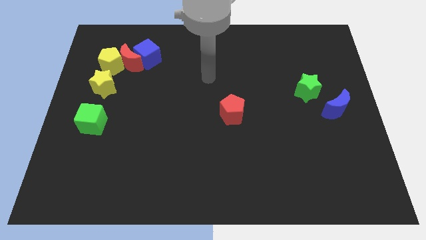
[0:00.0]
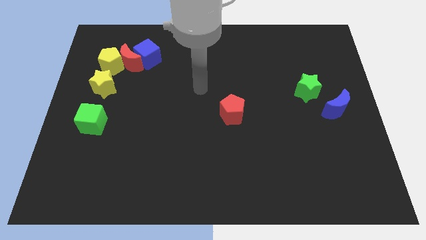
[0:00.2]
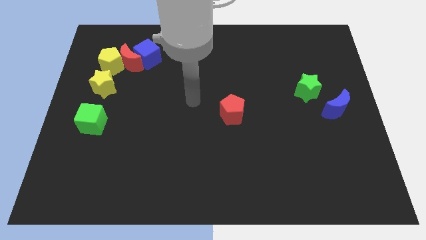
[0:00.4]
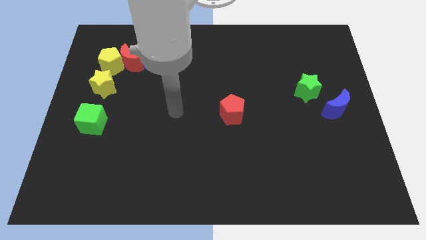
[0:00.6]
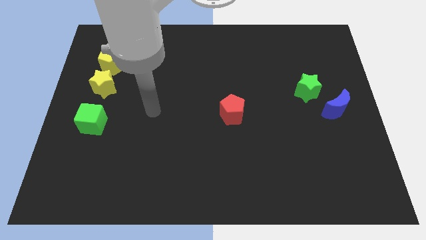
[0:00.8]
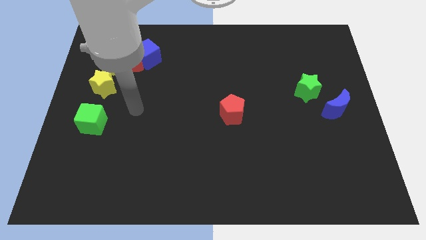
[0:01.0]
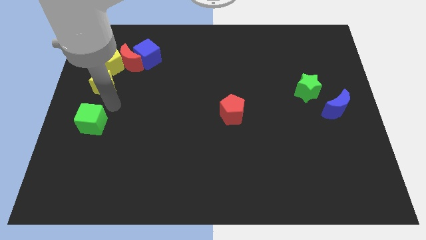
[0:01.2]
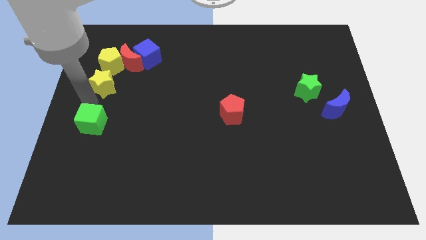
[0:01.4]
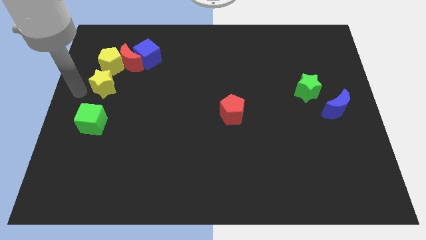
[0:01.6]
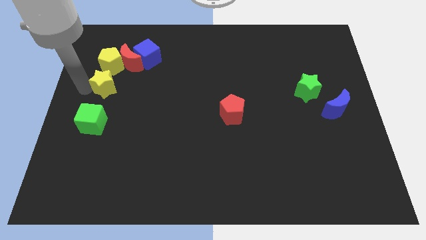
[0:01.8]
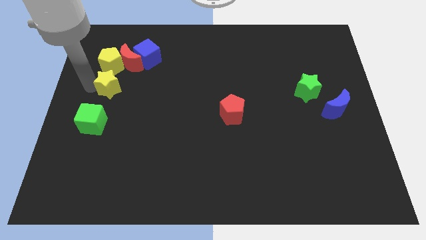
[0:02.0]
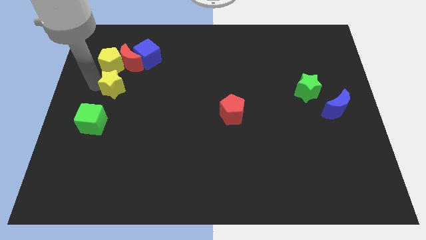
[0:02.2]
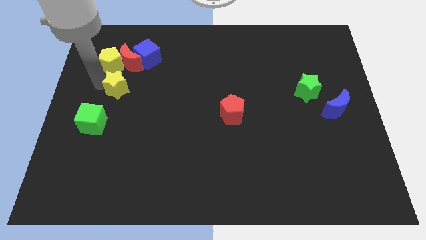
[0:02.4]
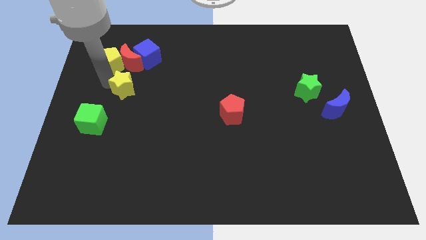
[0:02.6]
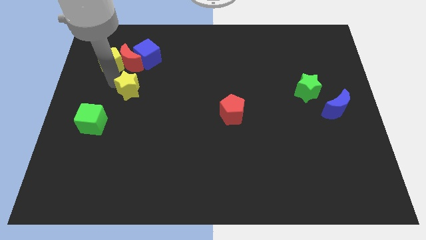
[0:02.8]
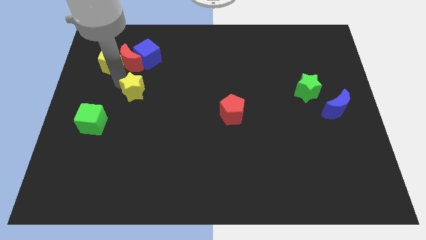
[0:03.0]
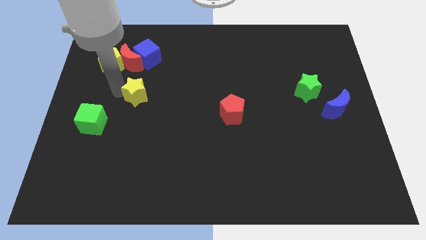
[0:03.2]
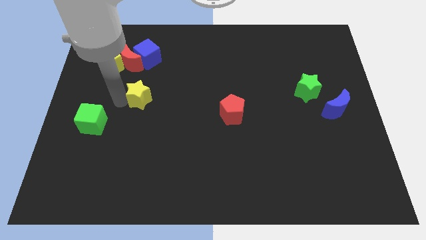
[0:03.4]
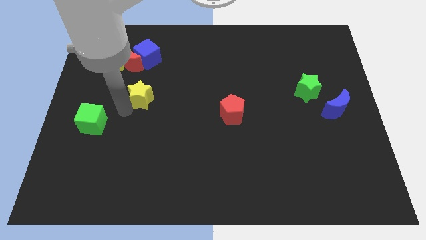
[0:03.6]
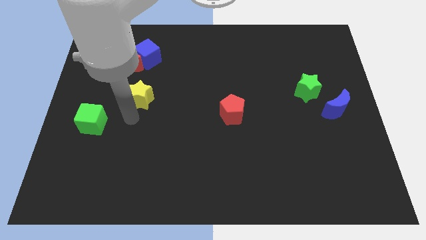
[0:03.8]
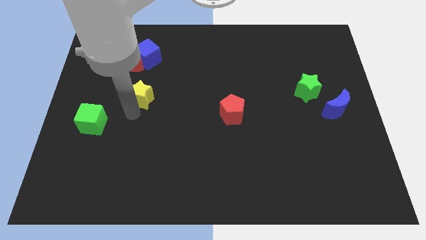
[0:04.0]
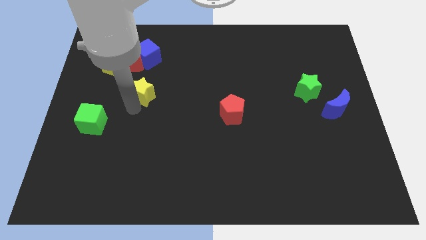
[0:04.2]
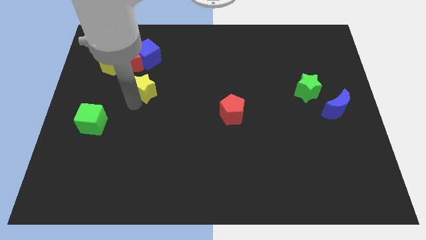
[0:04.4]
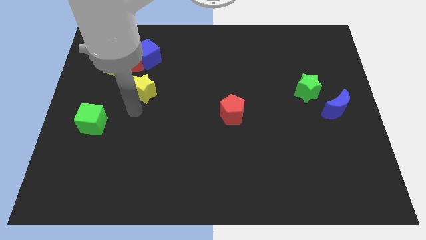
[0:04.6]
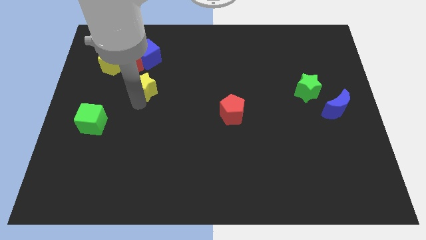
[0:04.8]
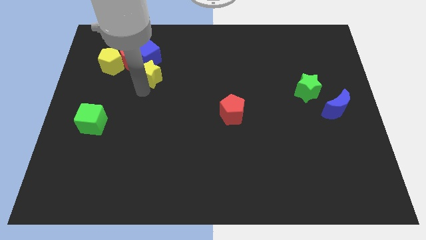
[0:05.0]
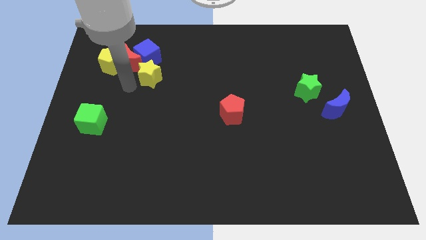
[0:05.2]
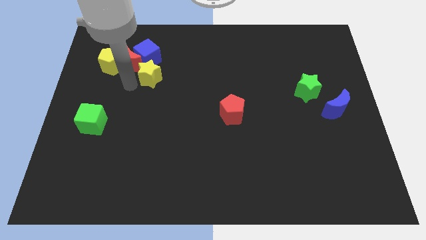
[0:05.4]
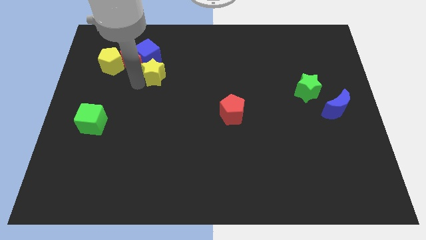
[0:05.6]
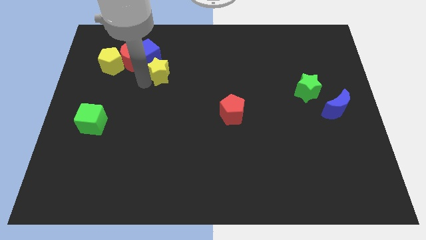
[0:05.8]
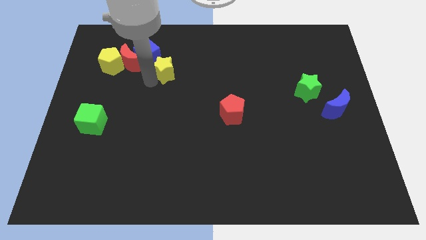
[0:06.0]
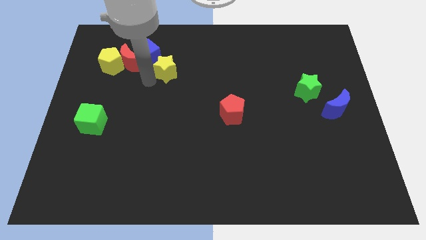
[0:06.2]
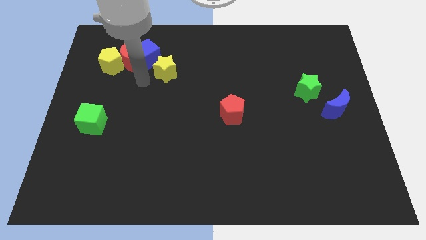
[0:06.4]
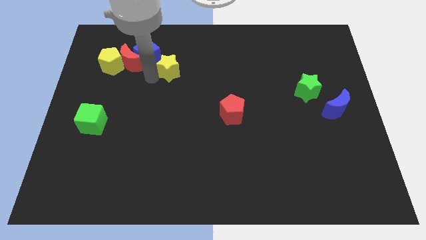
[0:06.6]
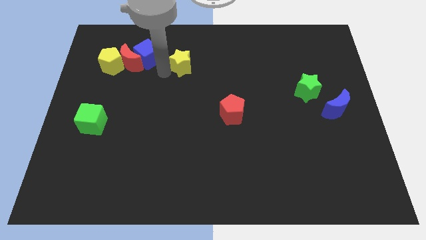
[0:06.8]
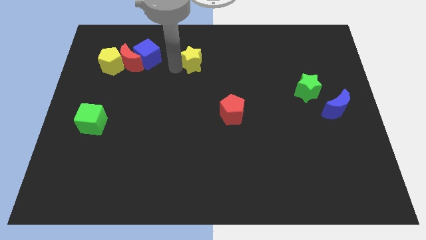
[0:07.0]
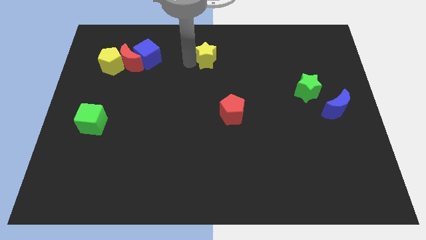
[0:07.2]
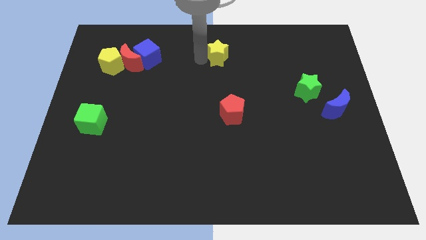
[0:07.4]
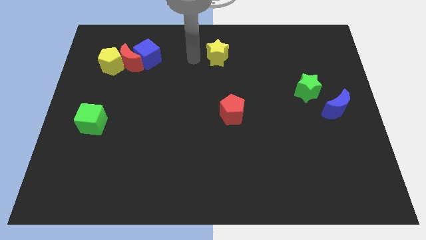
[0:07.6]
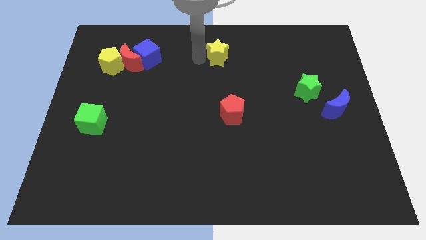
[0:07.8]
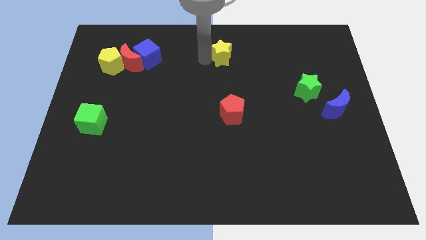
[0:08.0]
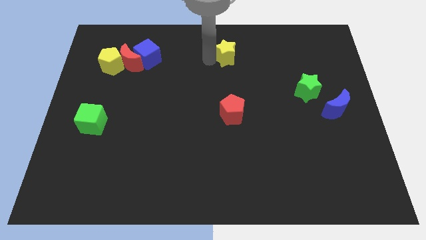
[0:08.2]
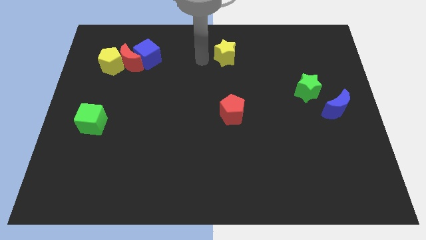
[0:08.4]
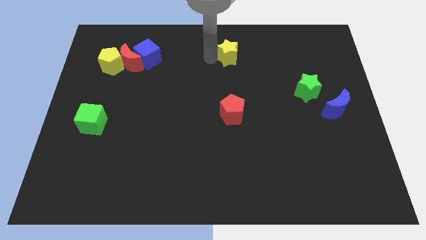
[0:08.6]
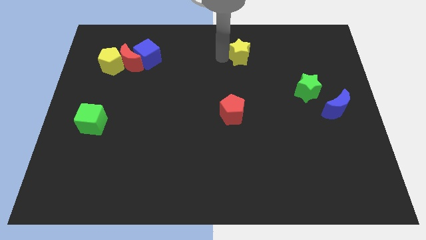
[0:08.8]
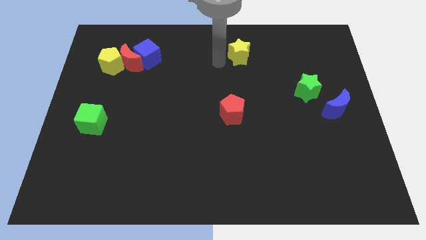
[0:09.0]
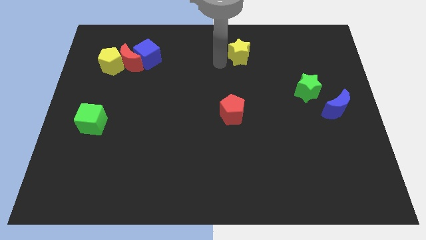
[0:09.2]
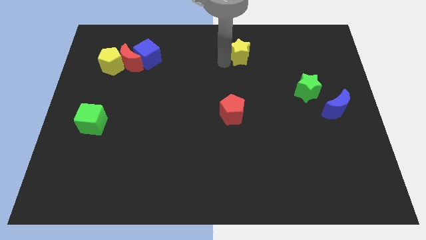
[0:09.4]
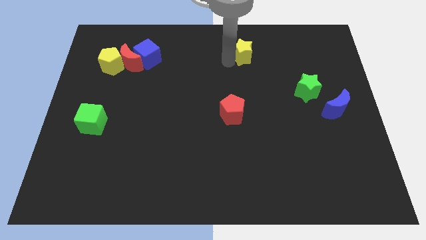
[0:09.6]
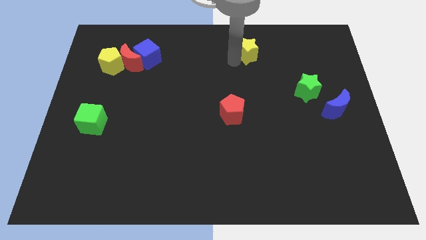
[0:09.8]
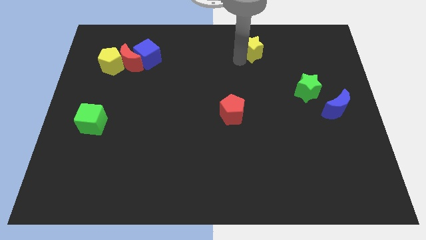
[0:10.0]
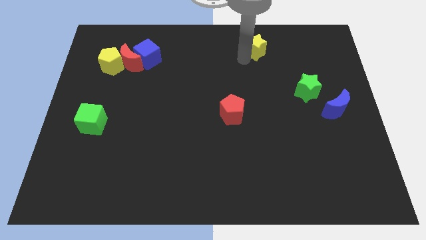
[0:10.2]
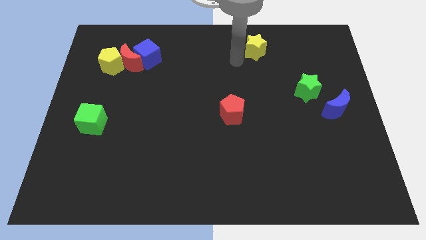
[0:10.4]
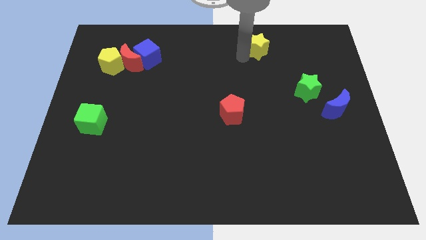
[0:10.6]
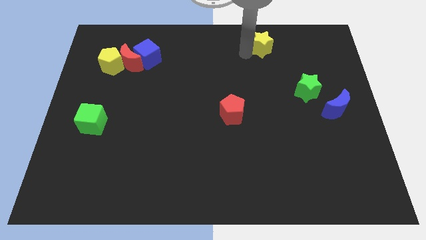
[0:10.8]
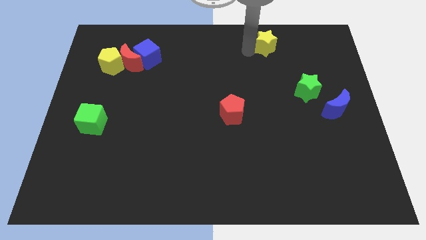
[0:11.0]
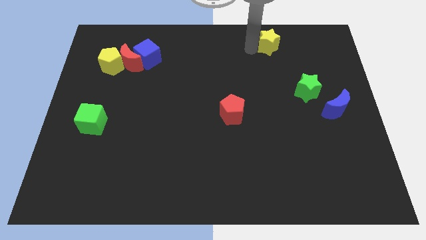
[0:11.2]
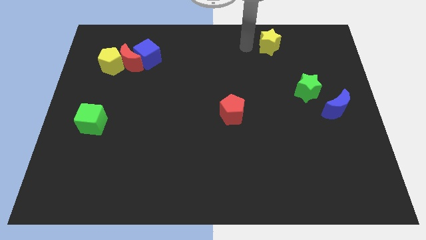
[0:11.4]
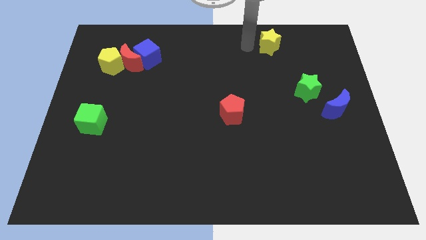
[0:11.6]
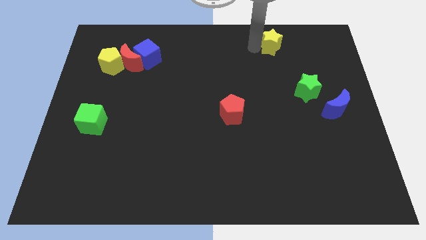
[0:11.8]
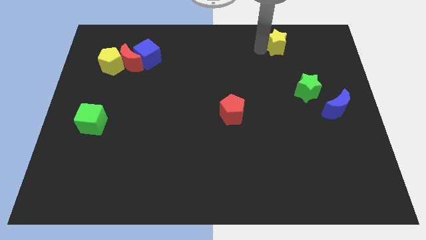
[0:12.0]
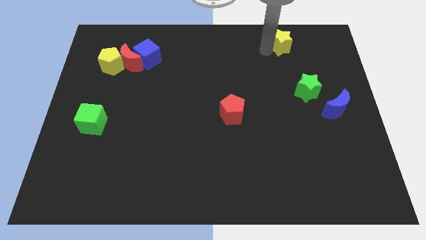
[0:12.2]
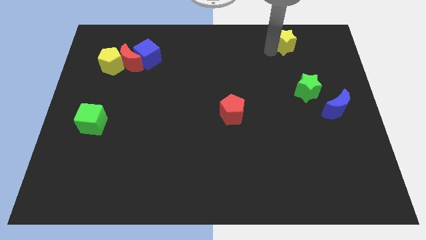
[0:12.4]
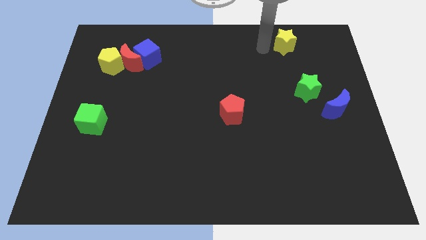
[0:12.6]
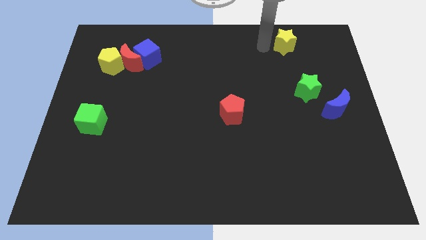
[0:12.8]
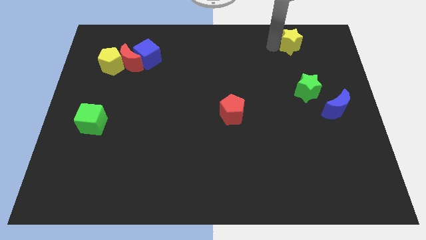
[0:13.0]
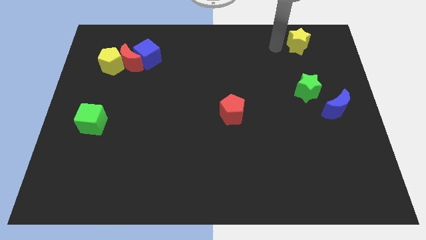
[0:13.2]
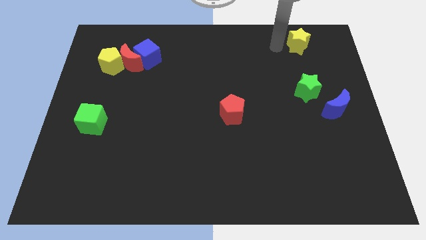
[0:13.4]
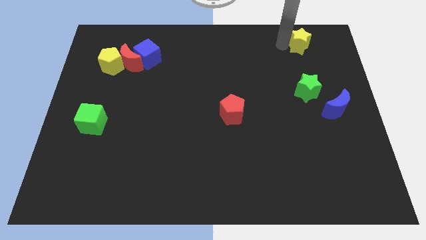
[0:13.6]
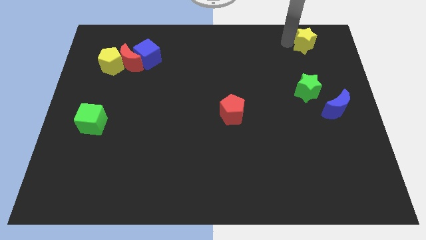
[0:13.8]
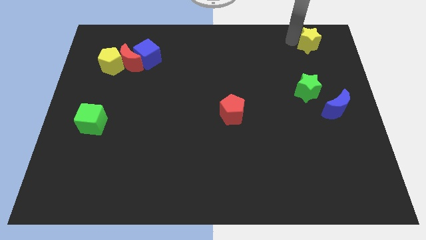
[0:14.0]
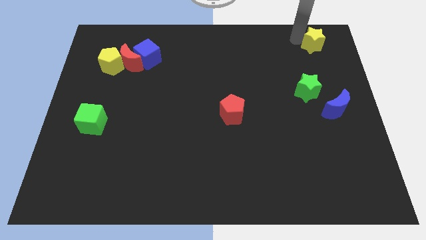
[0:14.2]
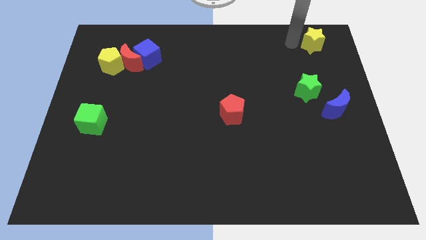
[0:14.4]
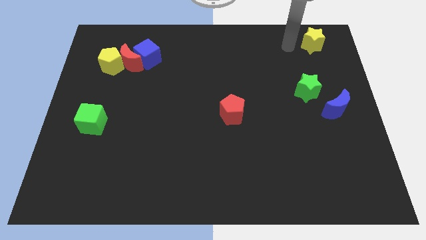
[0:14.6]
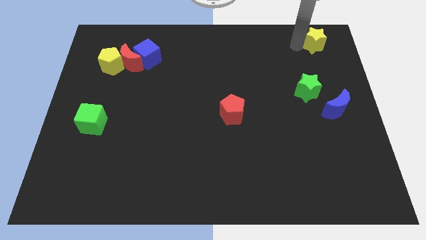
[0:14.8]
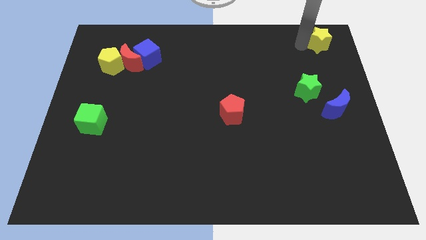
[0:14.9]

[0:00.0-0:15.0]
move the yellow star to the upper right corner
